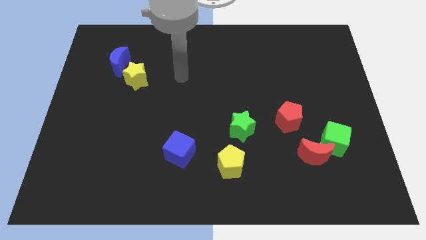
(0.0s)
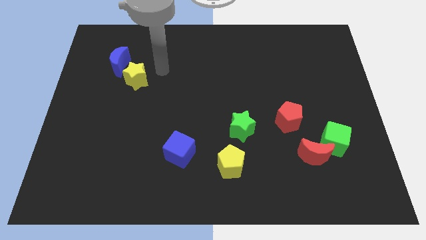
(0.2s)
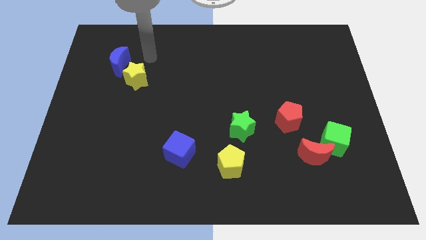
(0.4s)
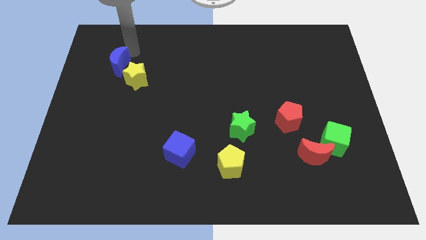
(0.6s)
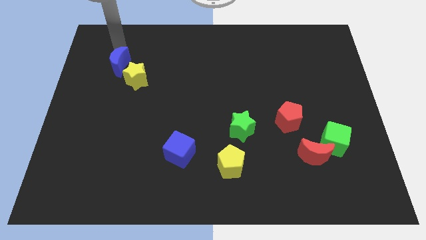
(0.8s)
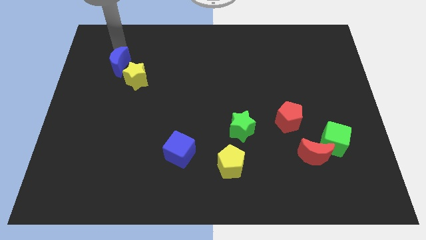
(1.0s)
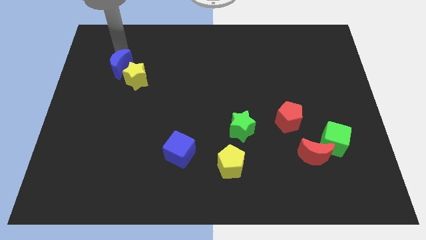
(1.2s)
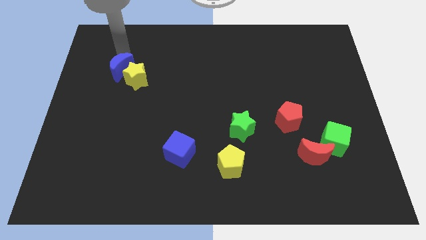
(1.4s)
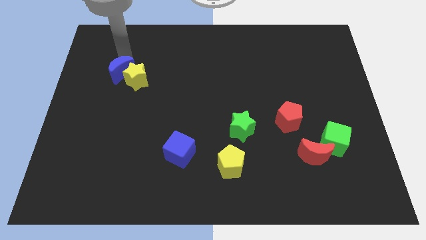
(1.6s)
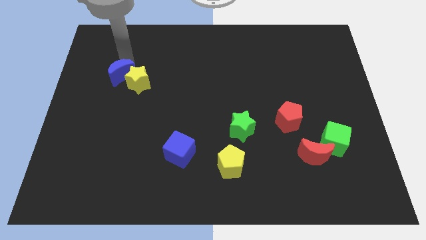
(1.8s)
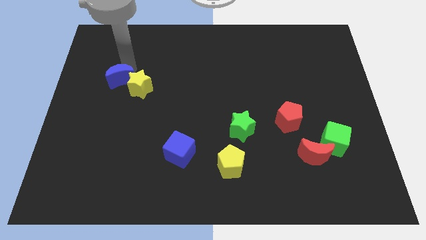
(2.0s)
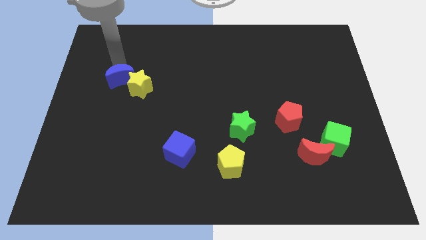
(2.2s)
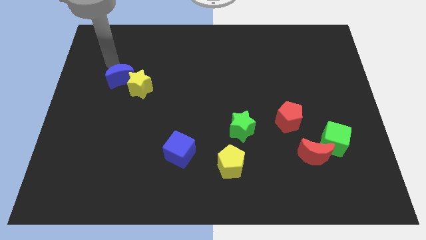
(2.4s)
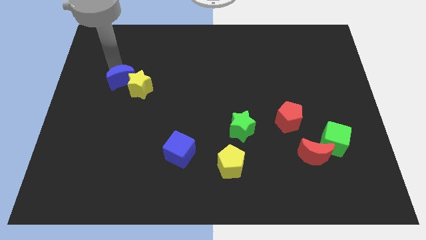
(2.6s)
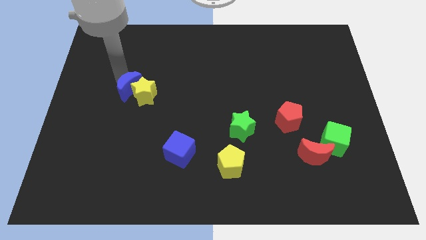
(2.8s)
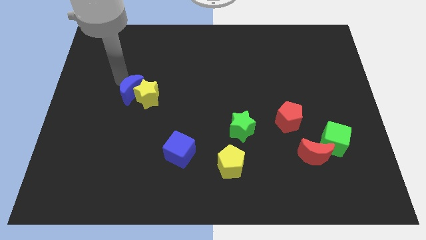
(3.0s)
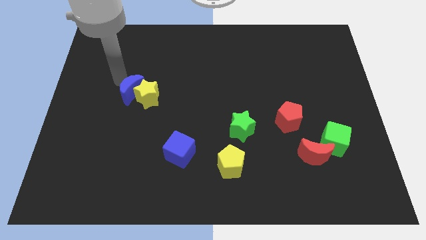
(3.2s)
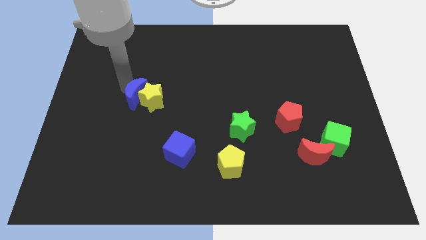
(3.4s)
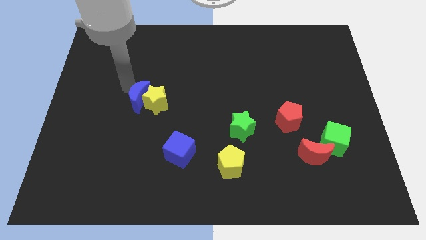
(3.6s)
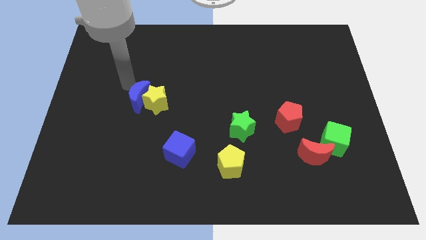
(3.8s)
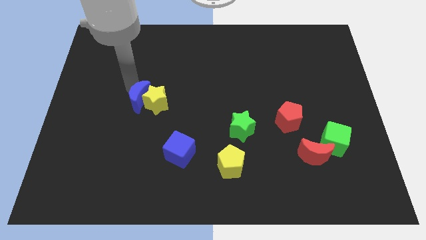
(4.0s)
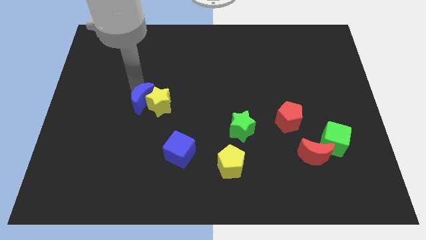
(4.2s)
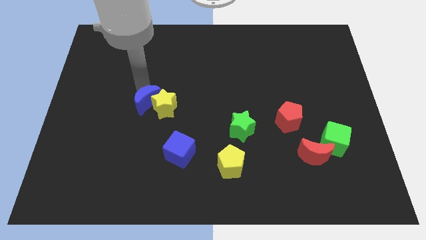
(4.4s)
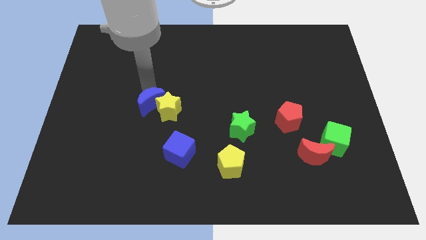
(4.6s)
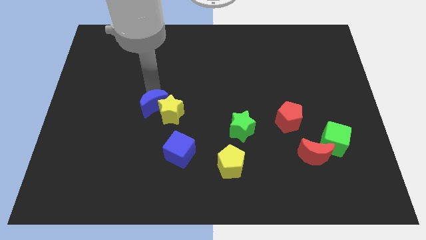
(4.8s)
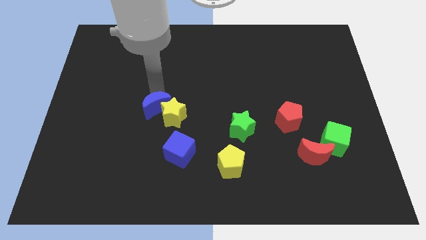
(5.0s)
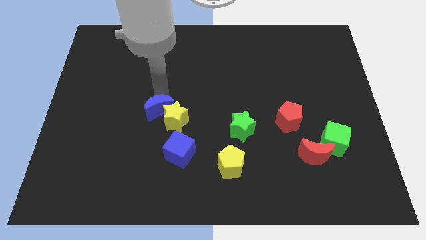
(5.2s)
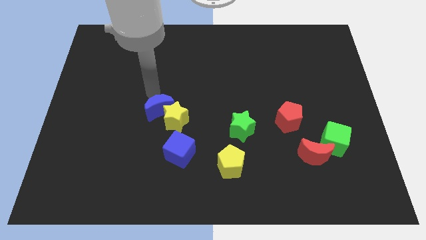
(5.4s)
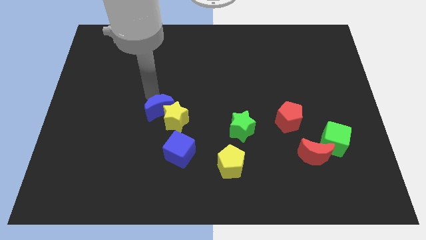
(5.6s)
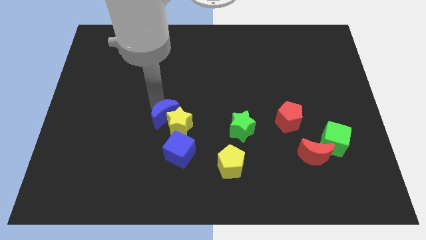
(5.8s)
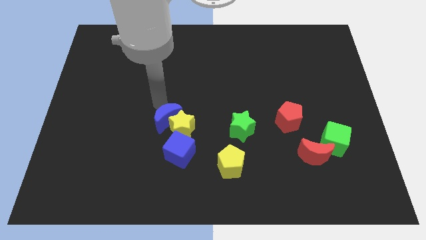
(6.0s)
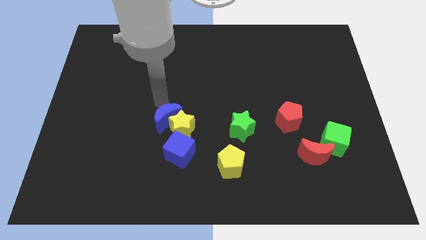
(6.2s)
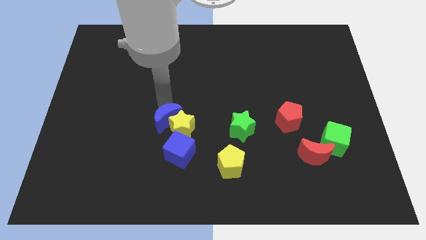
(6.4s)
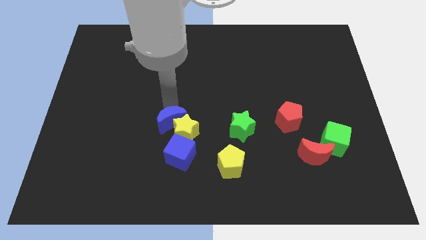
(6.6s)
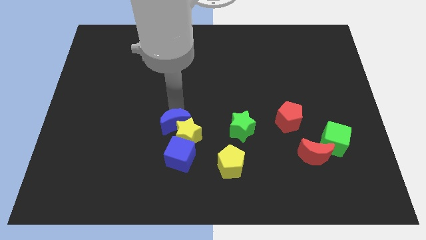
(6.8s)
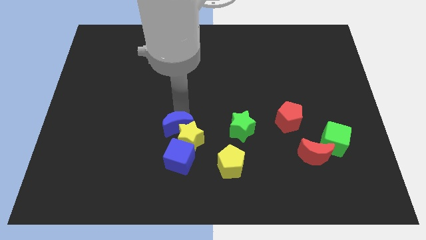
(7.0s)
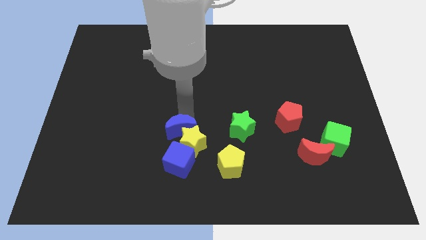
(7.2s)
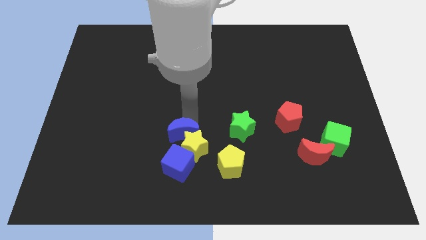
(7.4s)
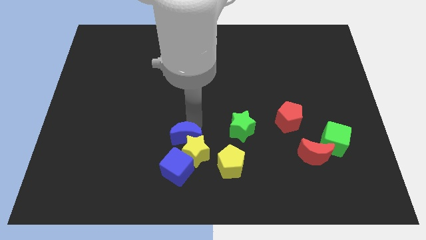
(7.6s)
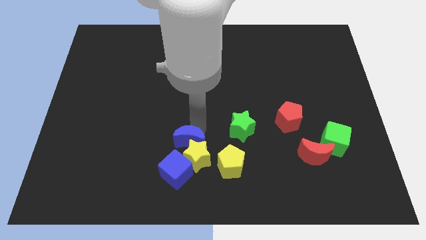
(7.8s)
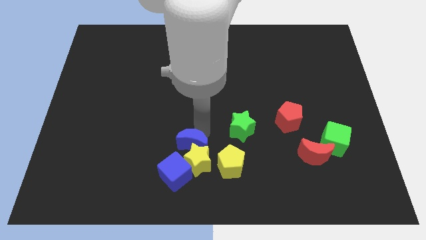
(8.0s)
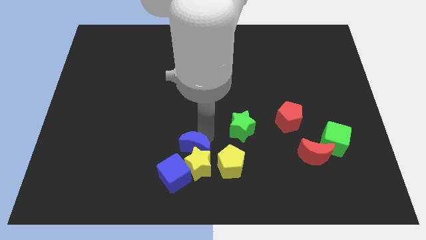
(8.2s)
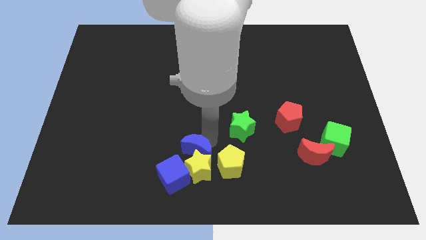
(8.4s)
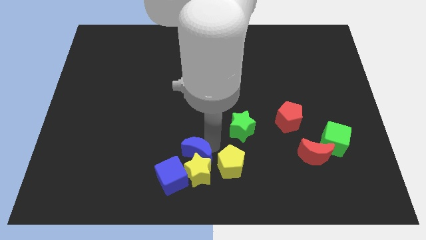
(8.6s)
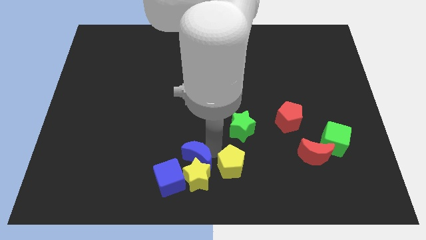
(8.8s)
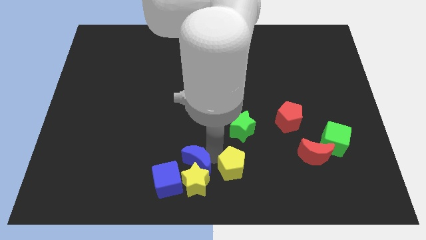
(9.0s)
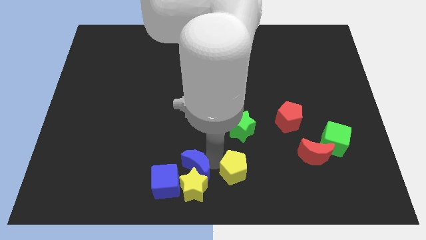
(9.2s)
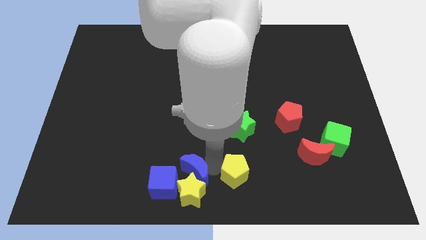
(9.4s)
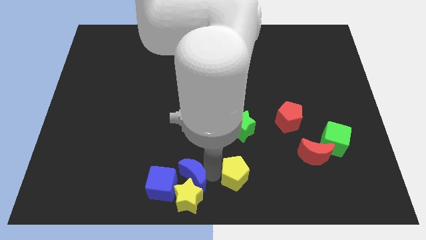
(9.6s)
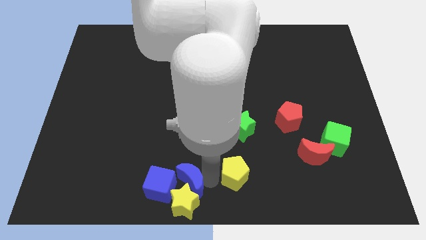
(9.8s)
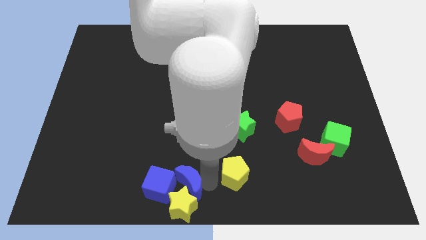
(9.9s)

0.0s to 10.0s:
put the blue moon next to the blue cube

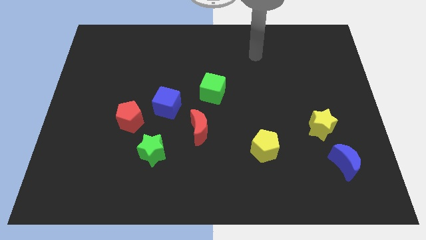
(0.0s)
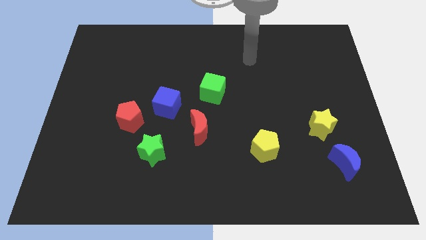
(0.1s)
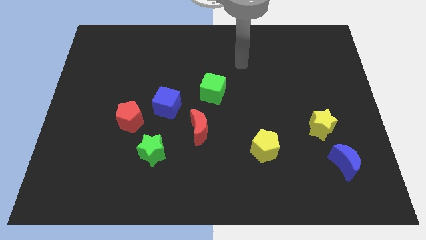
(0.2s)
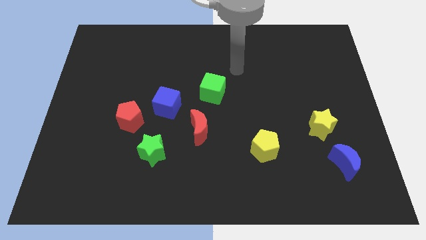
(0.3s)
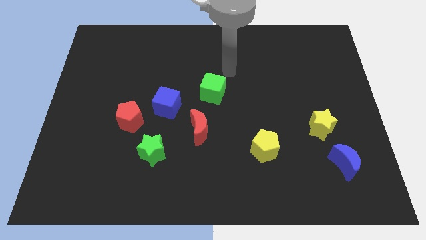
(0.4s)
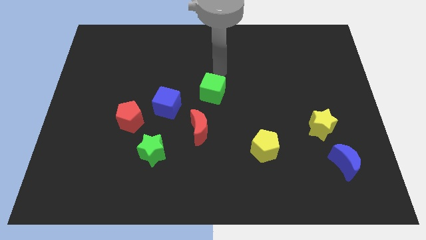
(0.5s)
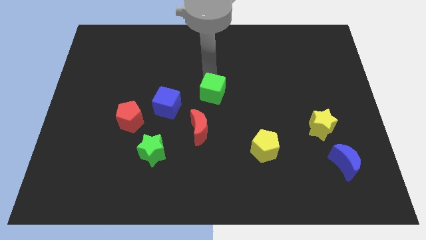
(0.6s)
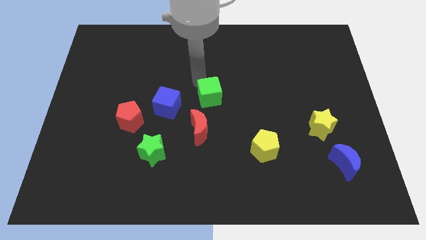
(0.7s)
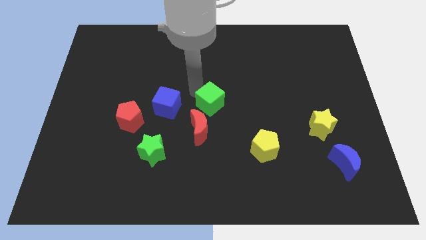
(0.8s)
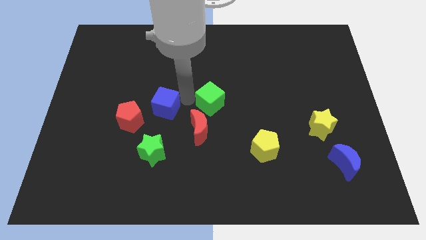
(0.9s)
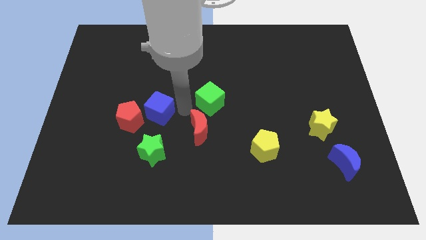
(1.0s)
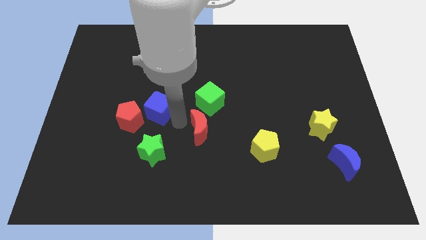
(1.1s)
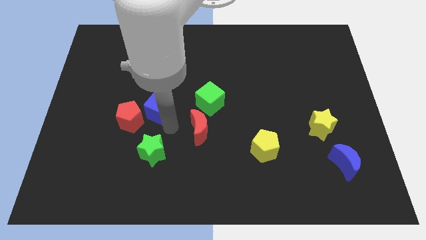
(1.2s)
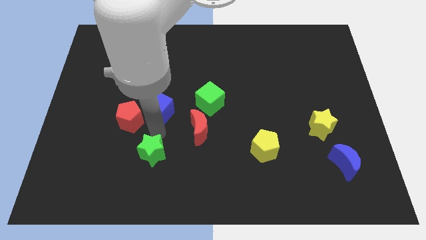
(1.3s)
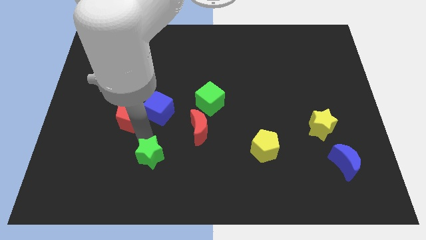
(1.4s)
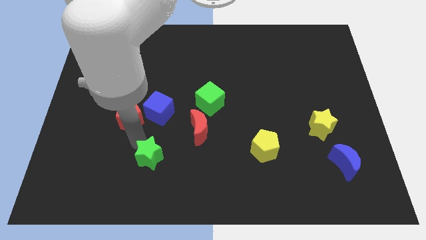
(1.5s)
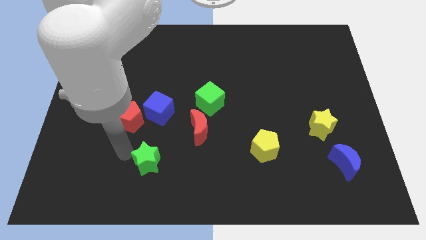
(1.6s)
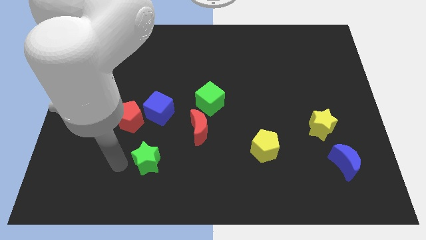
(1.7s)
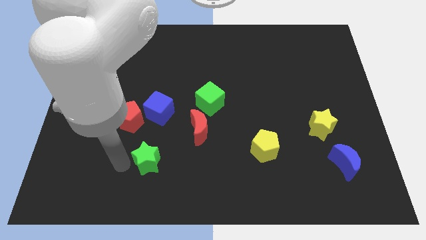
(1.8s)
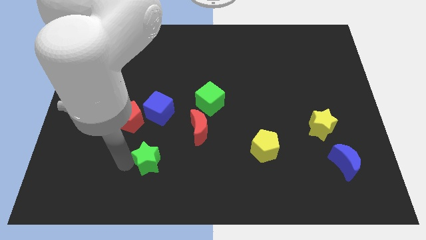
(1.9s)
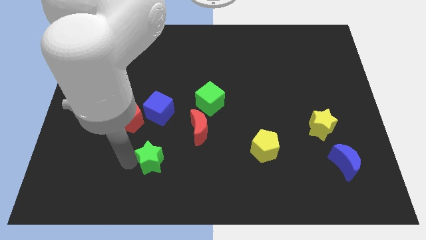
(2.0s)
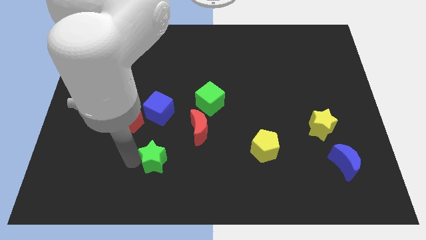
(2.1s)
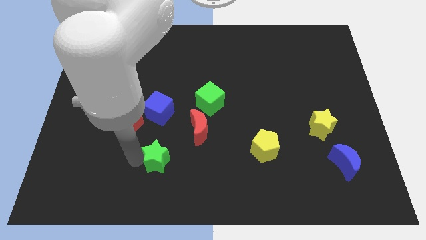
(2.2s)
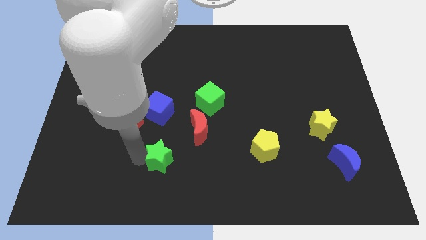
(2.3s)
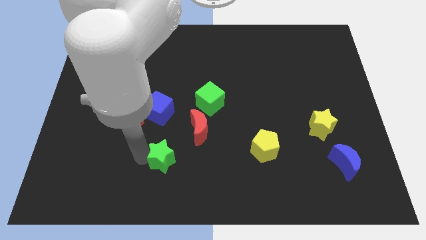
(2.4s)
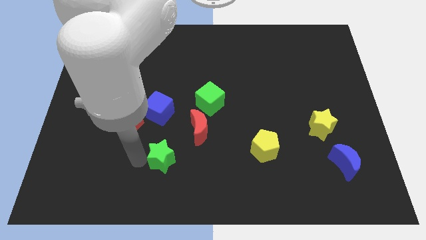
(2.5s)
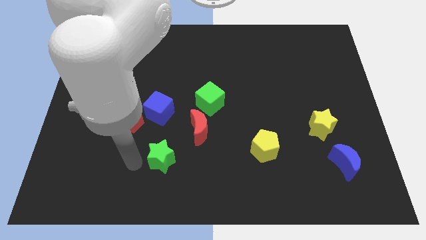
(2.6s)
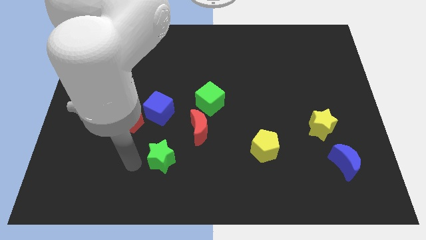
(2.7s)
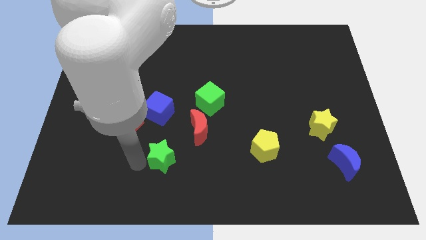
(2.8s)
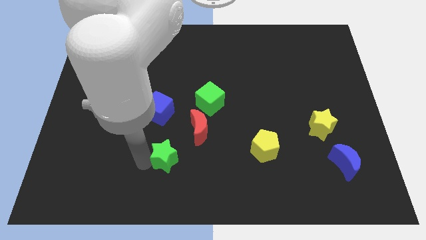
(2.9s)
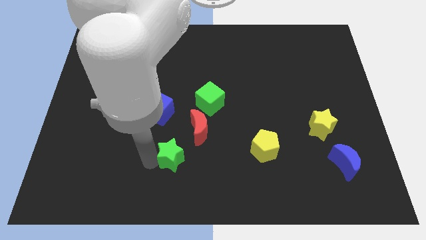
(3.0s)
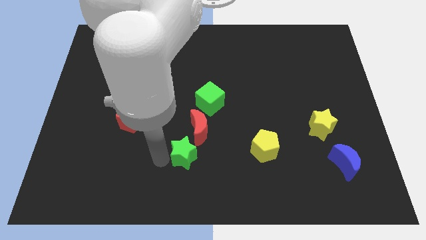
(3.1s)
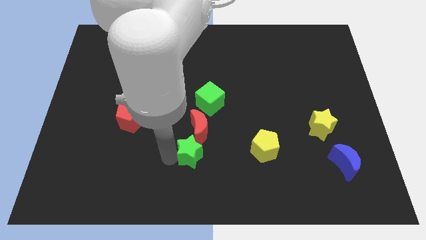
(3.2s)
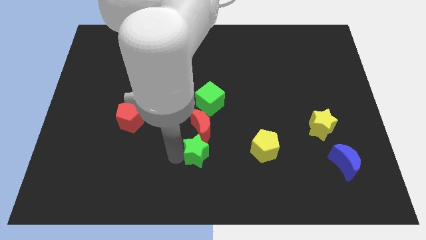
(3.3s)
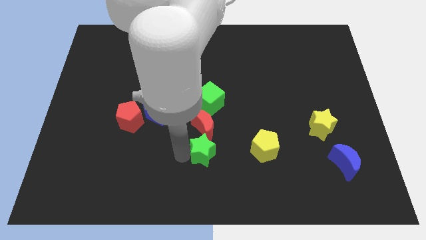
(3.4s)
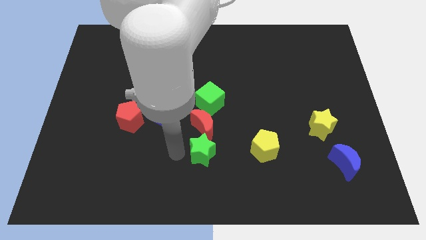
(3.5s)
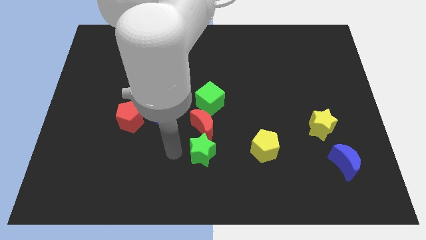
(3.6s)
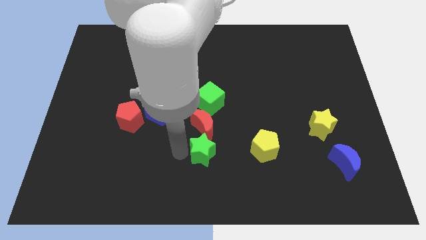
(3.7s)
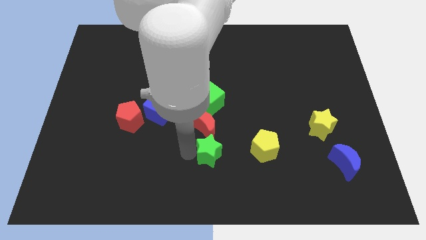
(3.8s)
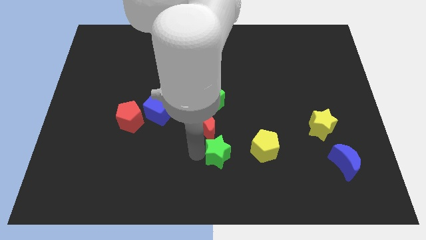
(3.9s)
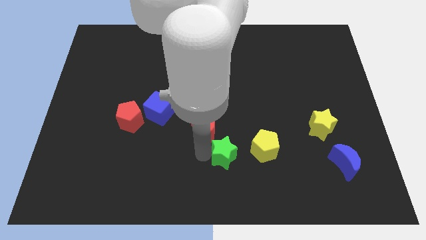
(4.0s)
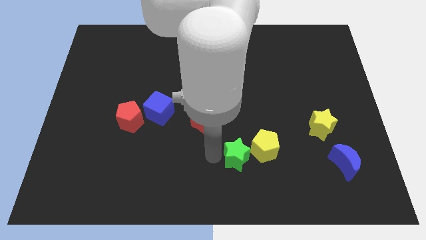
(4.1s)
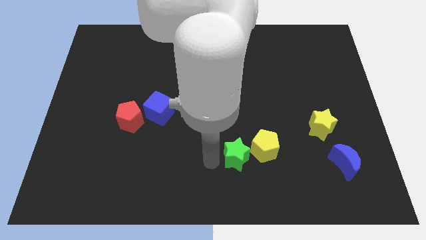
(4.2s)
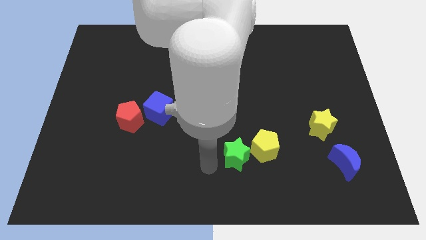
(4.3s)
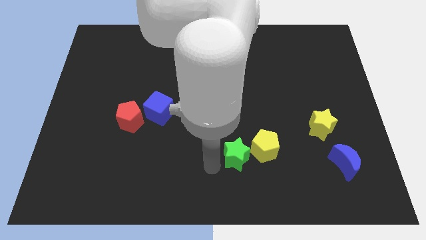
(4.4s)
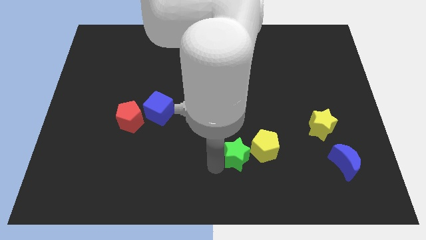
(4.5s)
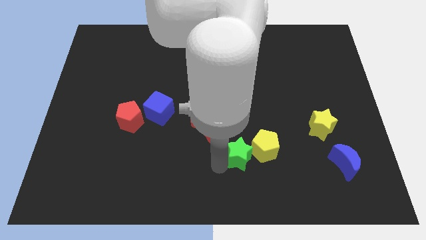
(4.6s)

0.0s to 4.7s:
move the green star to the yellow pentagon
